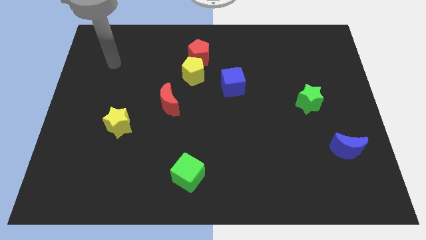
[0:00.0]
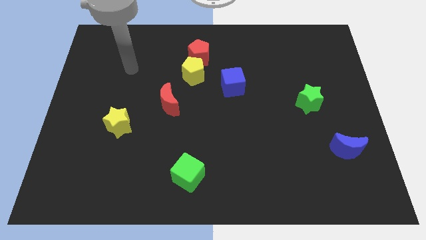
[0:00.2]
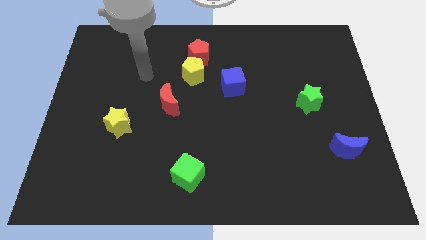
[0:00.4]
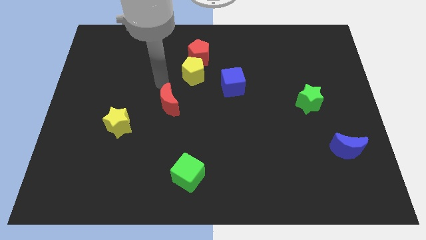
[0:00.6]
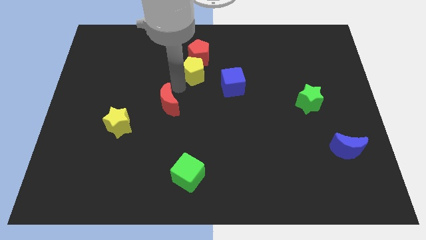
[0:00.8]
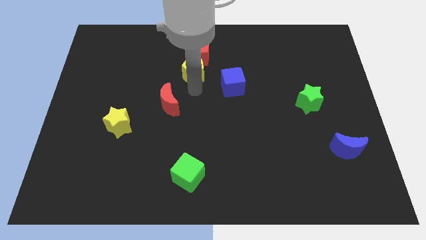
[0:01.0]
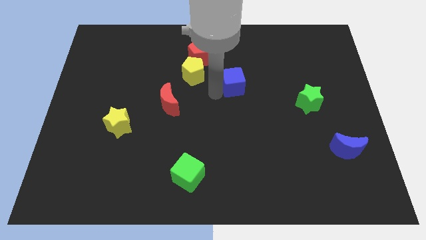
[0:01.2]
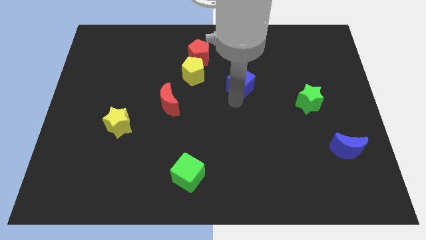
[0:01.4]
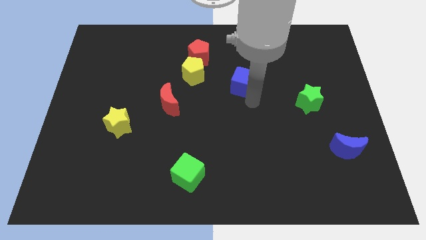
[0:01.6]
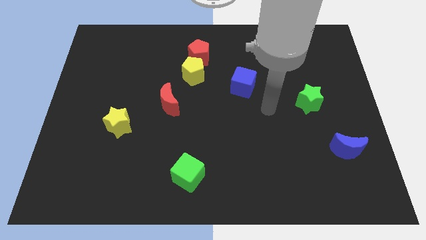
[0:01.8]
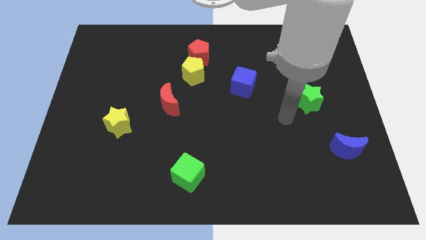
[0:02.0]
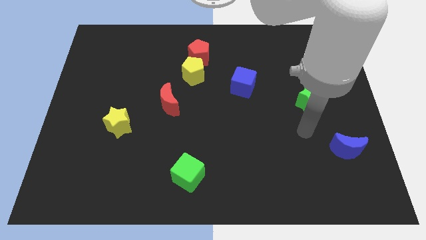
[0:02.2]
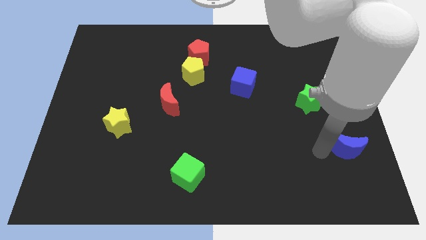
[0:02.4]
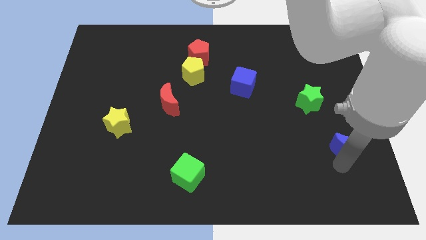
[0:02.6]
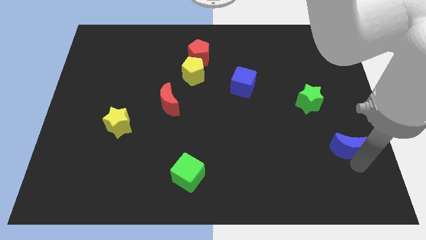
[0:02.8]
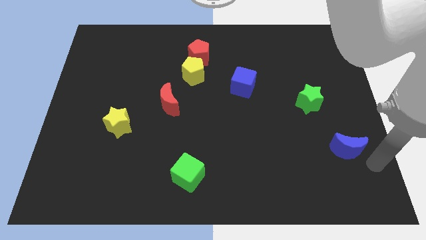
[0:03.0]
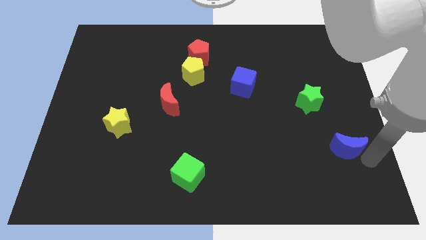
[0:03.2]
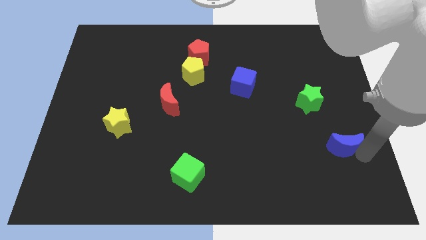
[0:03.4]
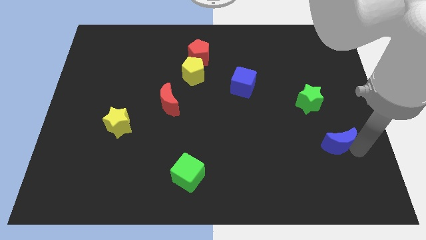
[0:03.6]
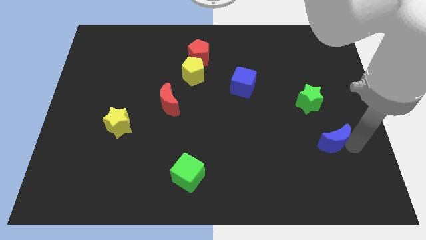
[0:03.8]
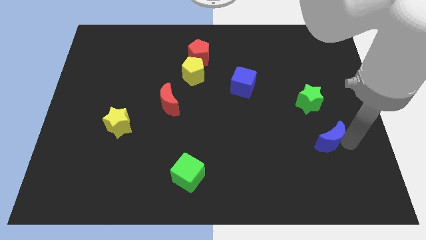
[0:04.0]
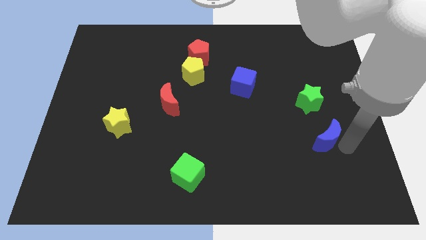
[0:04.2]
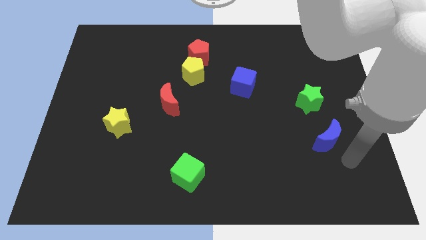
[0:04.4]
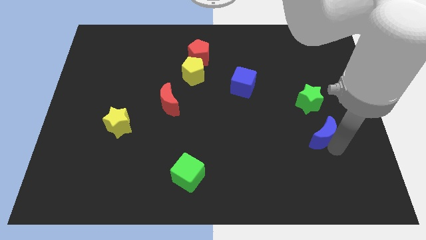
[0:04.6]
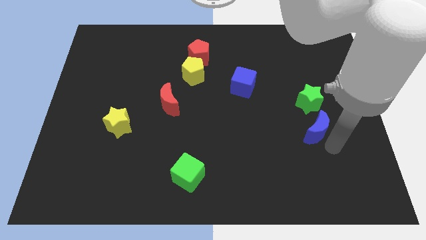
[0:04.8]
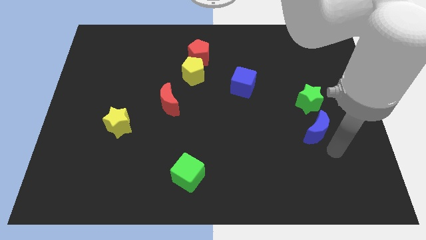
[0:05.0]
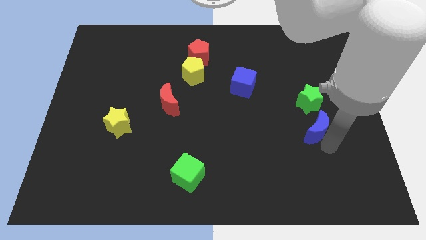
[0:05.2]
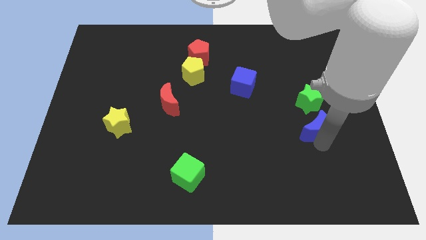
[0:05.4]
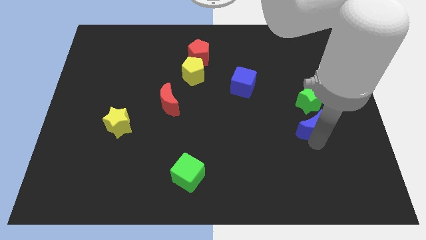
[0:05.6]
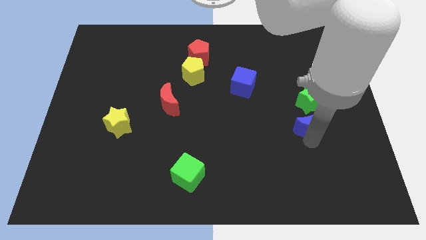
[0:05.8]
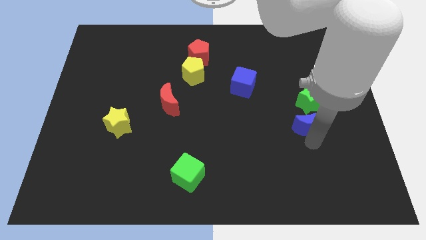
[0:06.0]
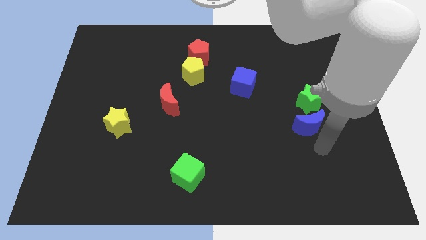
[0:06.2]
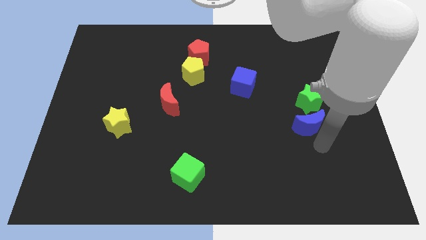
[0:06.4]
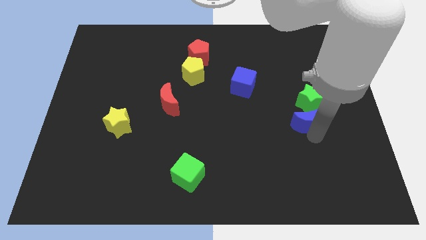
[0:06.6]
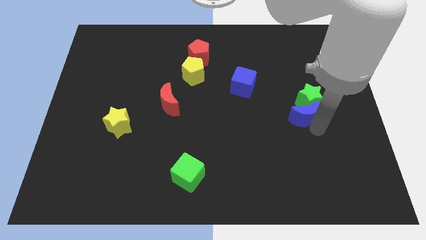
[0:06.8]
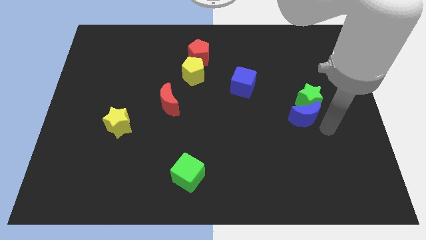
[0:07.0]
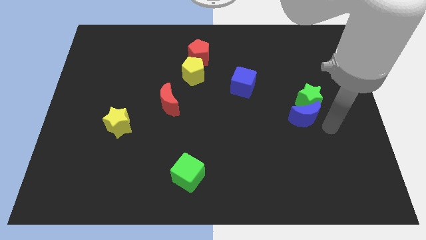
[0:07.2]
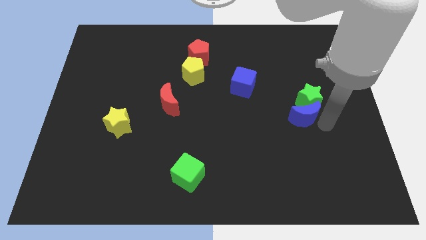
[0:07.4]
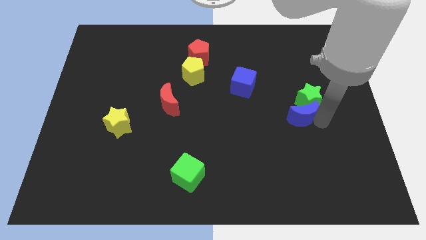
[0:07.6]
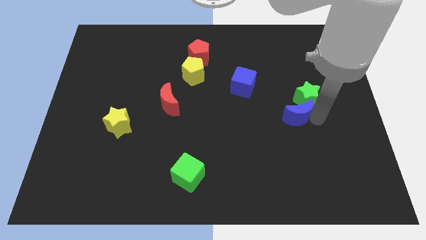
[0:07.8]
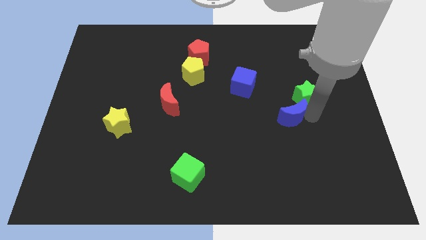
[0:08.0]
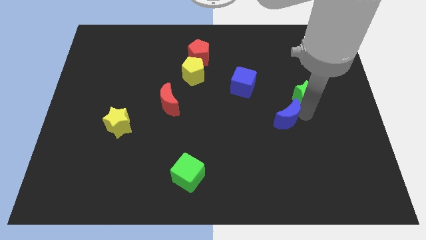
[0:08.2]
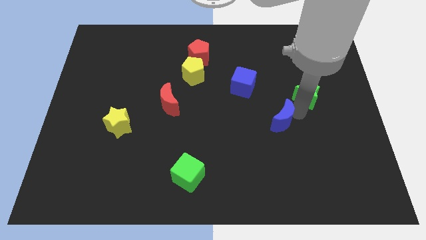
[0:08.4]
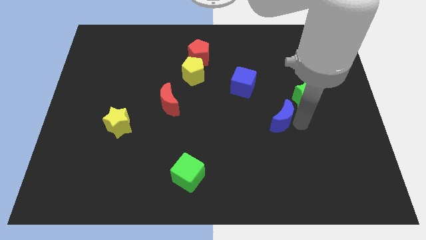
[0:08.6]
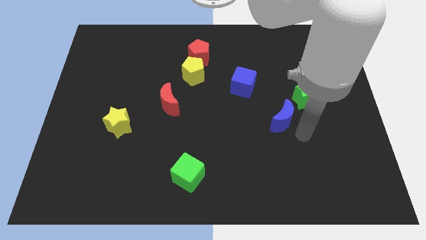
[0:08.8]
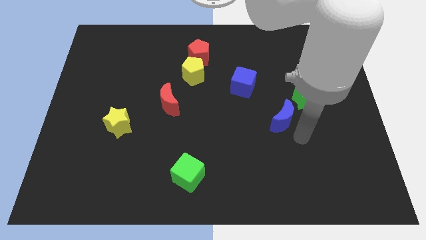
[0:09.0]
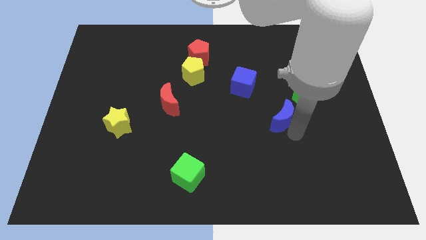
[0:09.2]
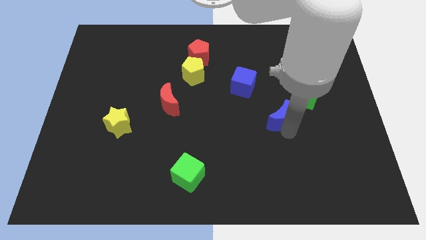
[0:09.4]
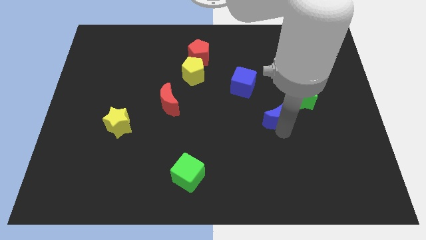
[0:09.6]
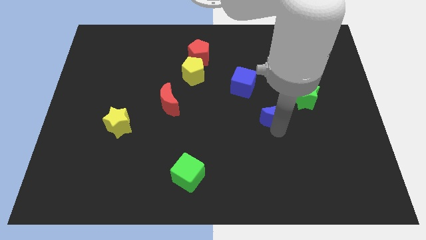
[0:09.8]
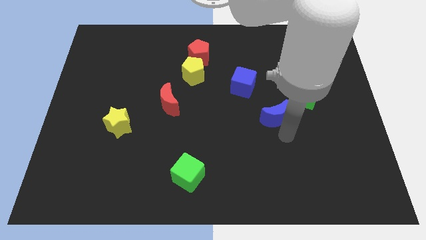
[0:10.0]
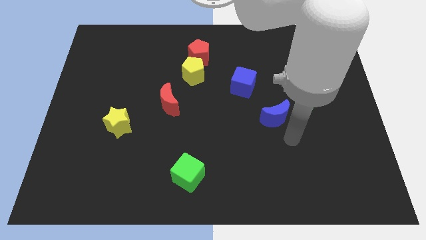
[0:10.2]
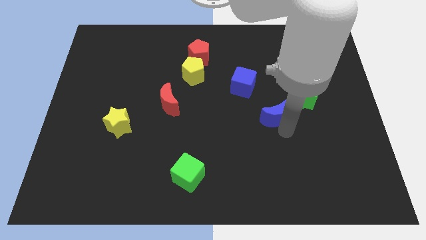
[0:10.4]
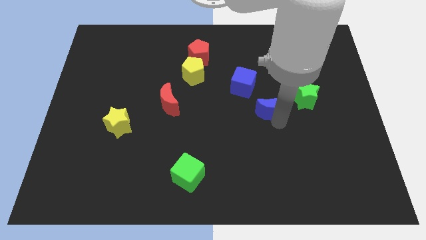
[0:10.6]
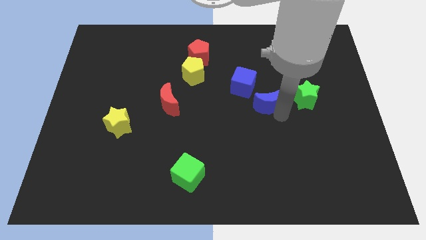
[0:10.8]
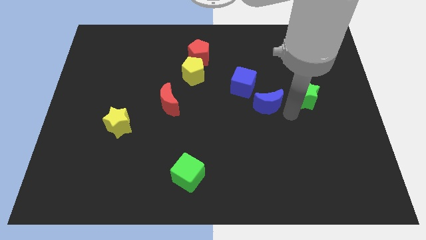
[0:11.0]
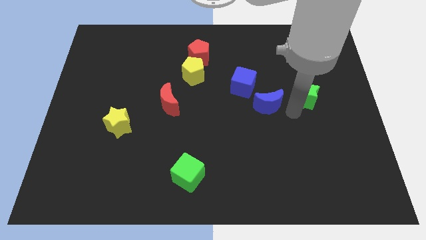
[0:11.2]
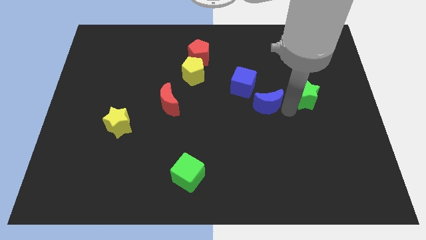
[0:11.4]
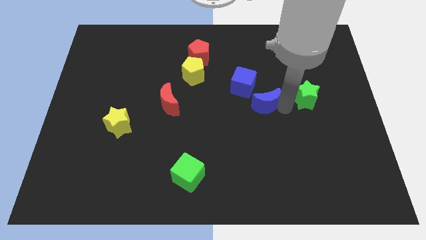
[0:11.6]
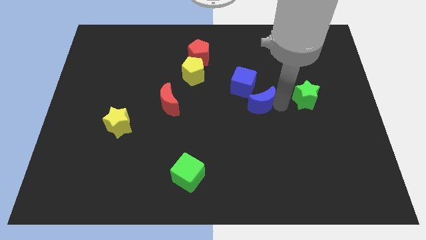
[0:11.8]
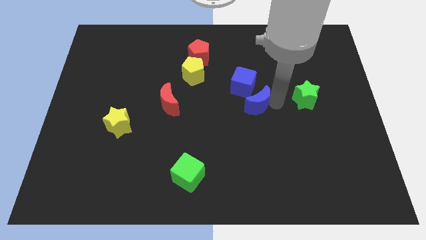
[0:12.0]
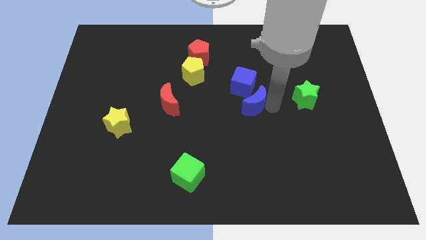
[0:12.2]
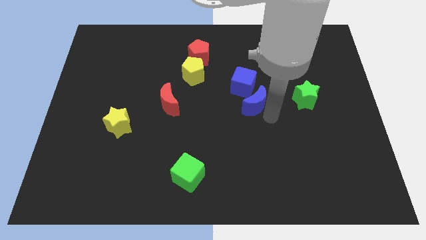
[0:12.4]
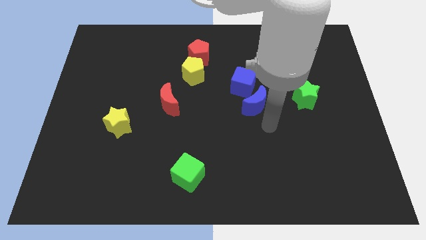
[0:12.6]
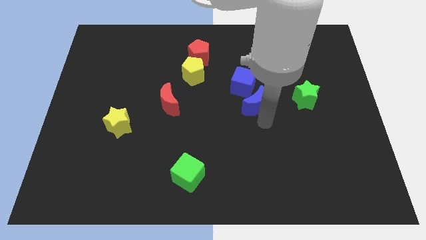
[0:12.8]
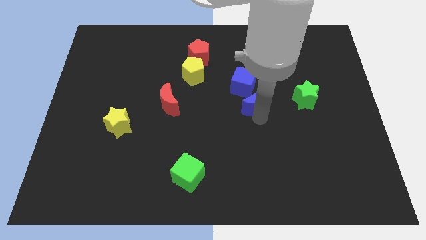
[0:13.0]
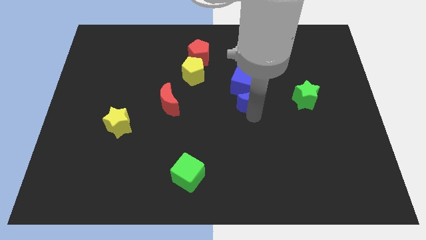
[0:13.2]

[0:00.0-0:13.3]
push the blue moon next to the blue cube
